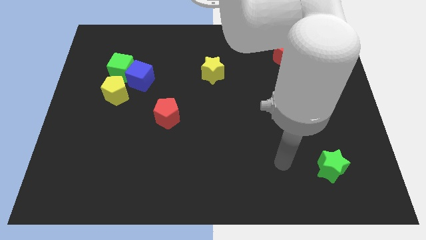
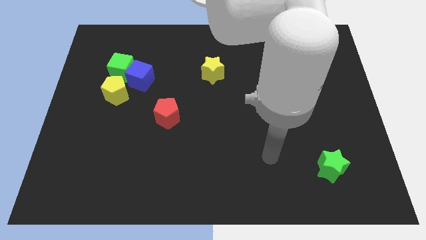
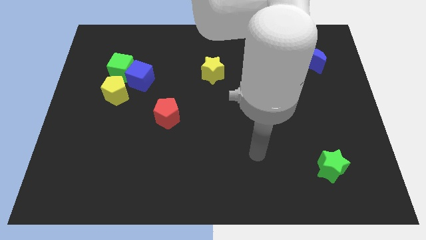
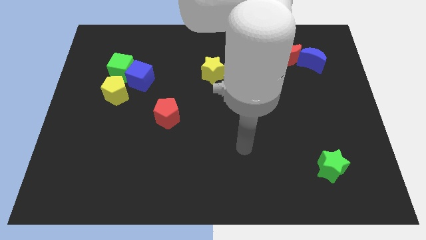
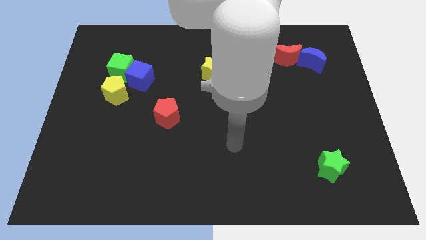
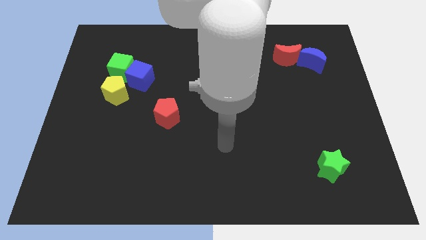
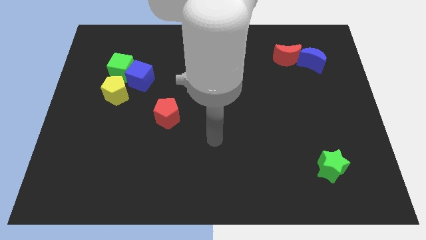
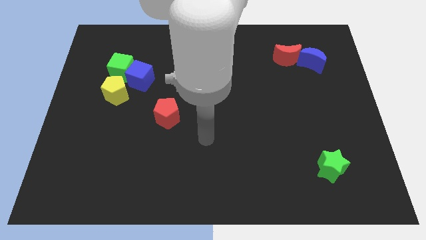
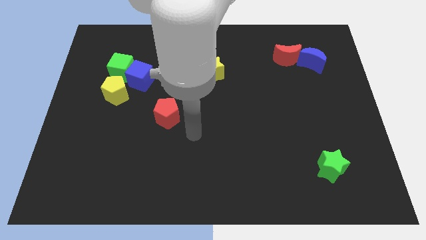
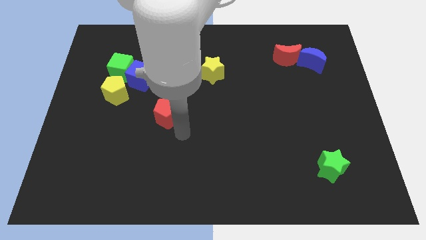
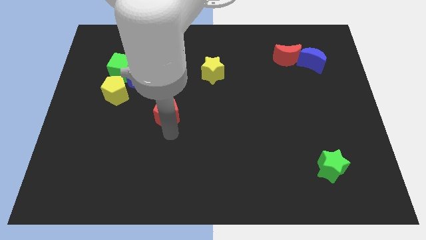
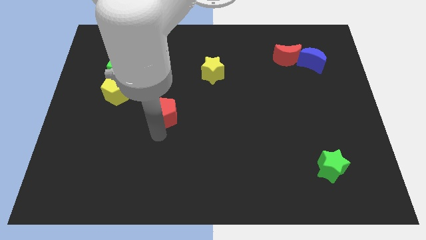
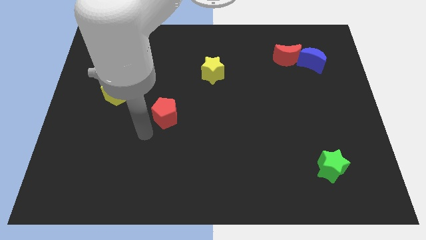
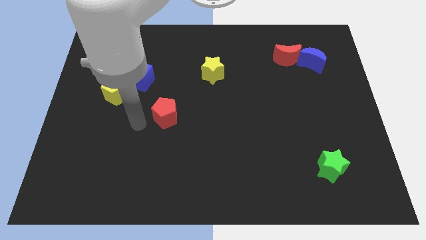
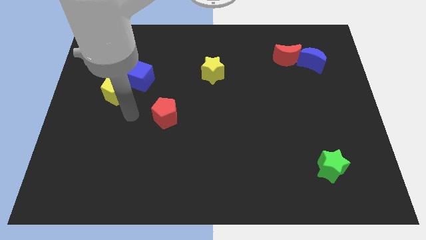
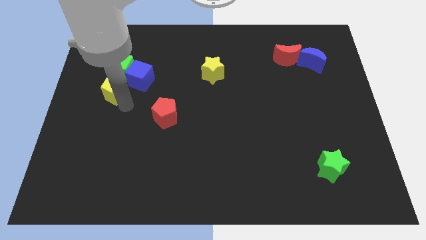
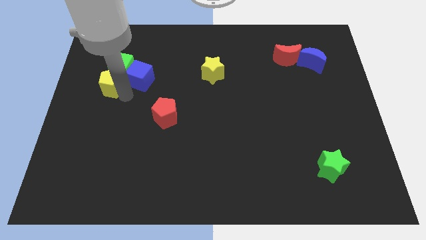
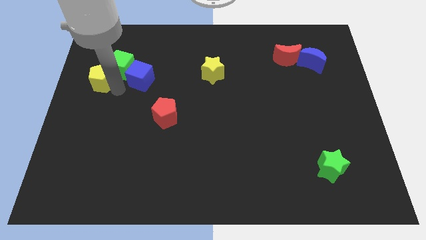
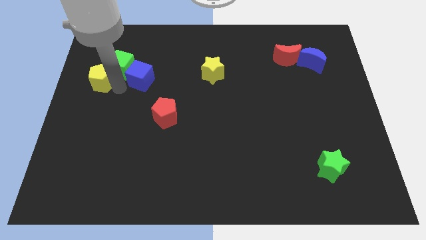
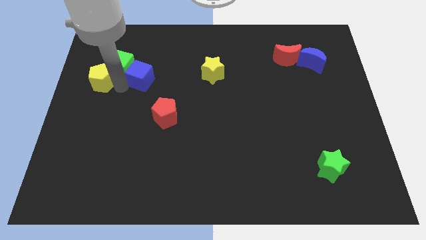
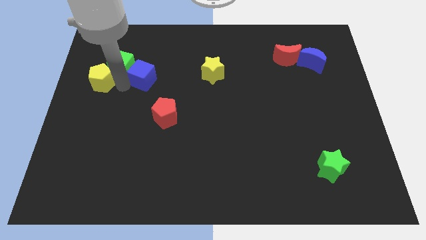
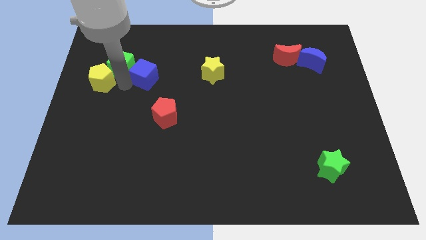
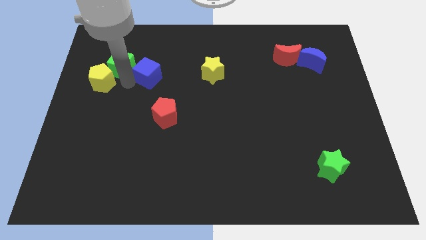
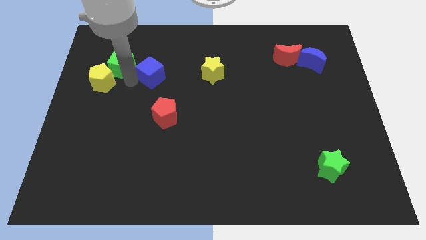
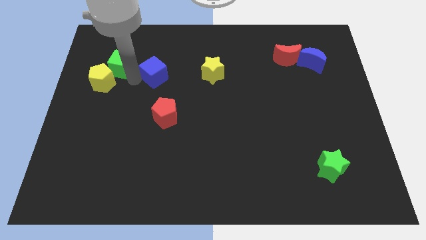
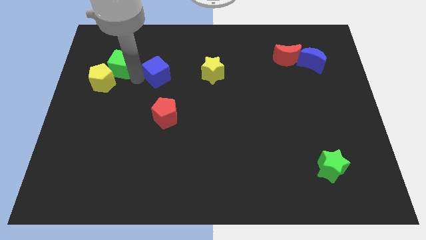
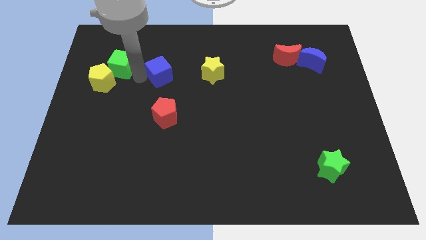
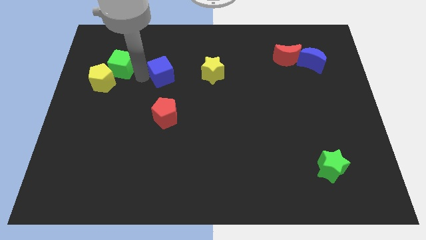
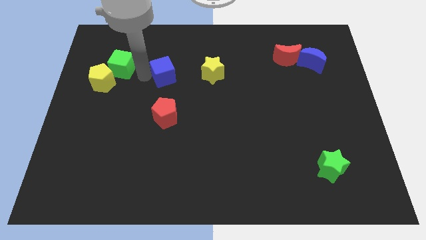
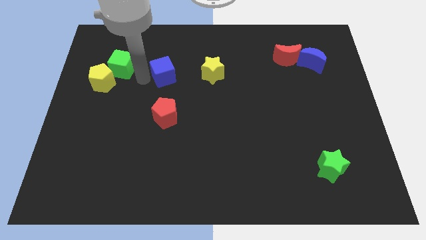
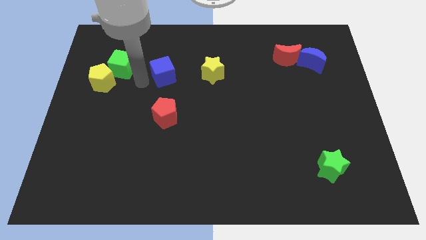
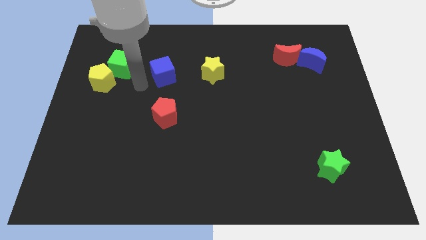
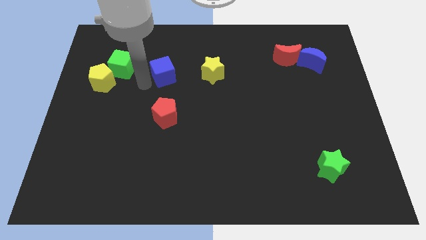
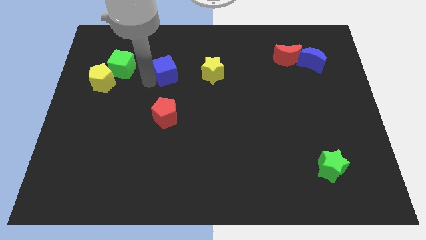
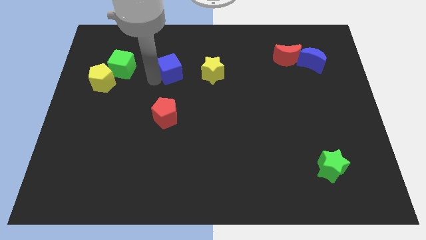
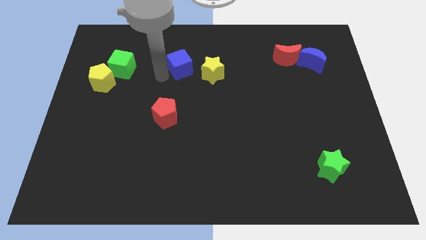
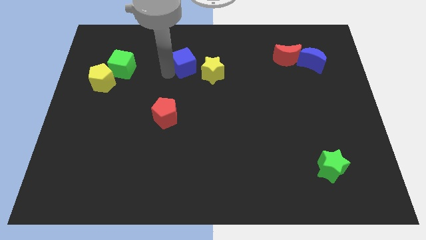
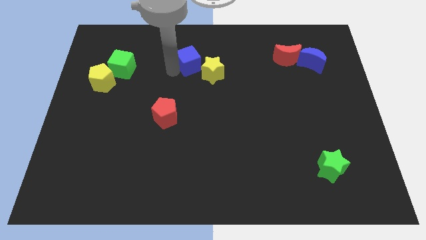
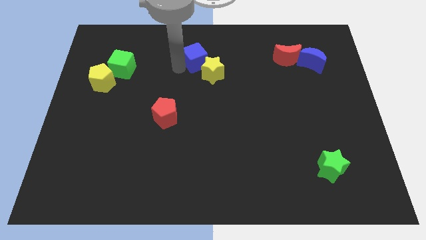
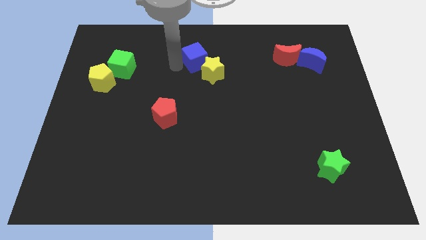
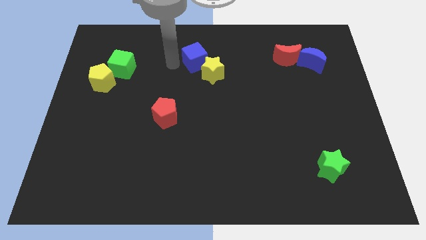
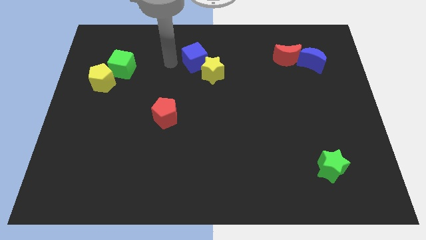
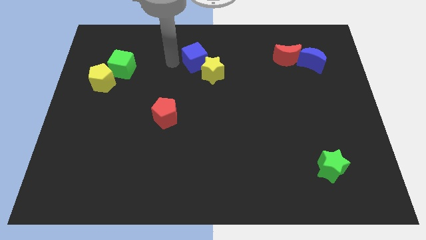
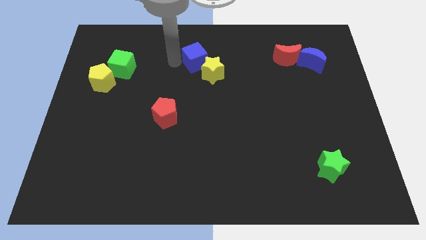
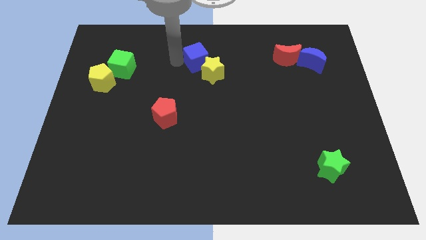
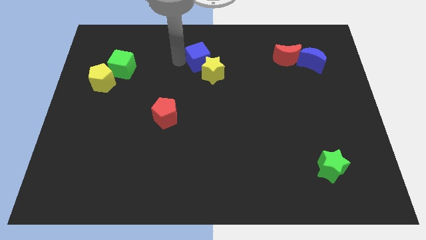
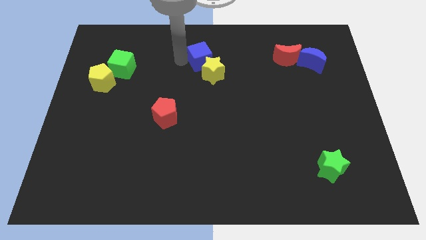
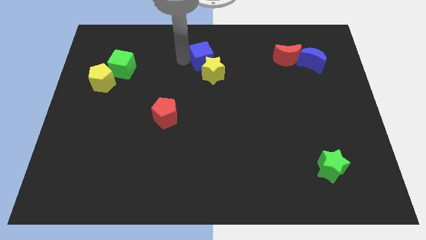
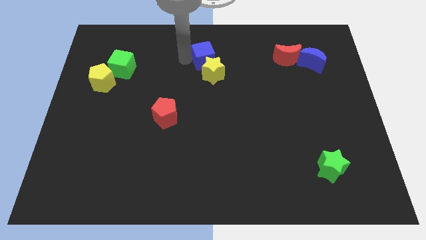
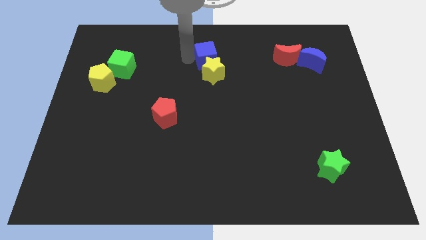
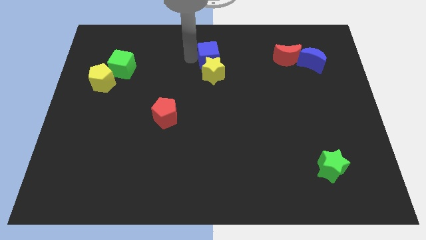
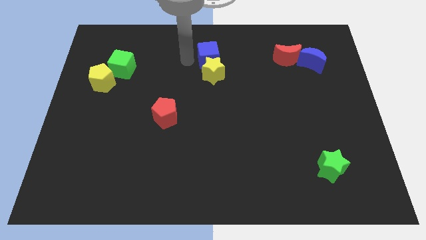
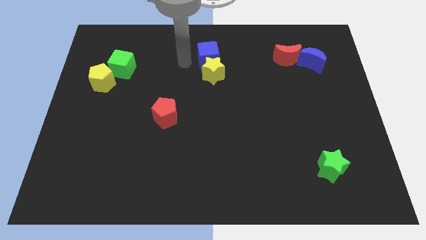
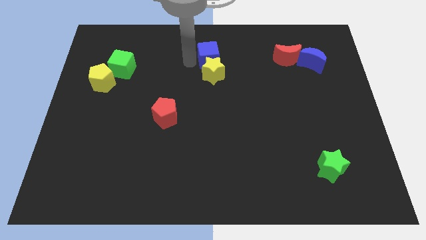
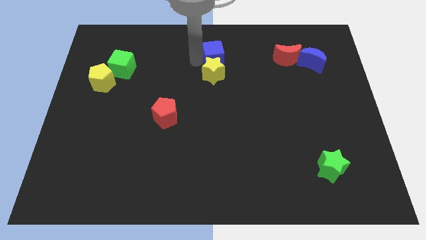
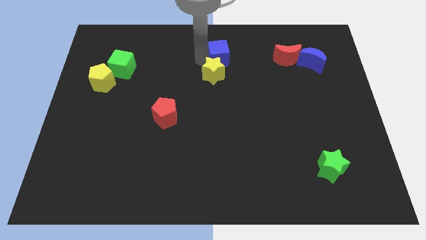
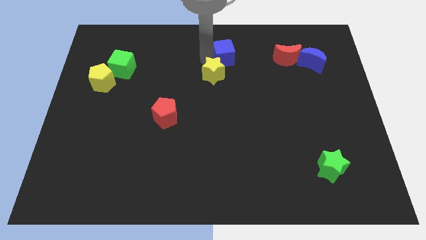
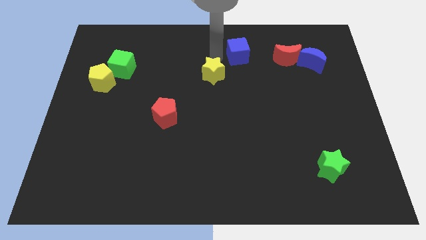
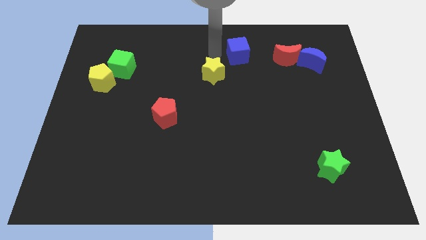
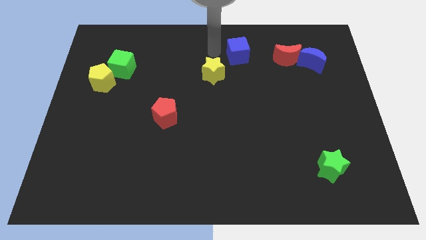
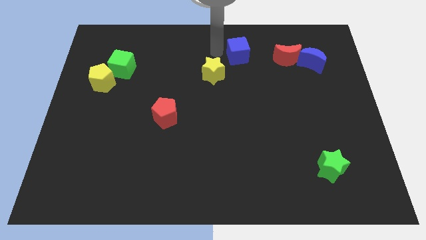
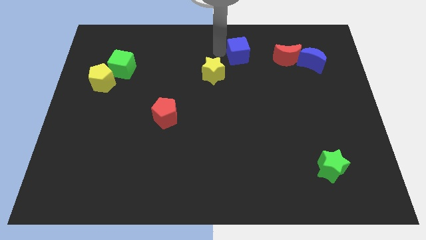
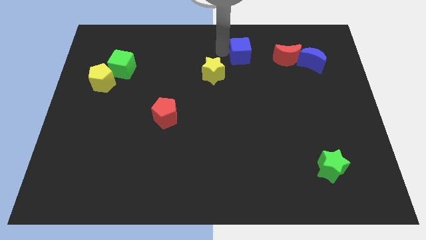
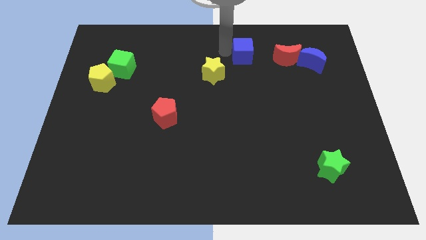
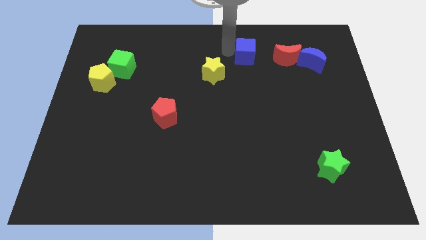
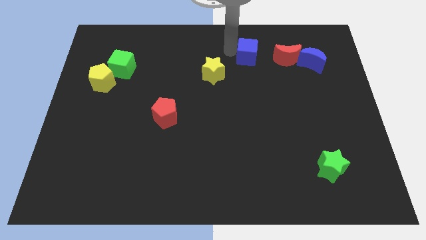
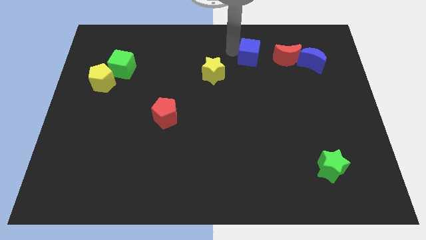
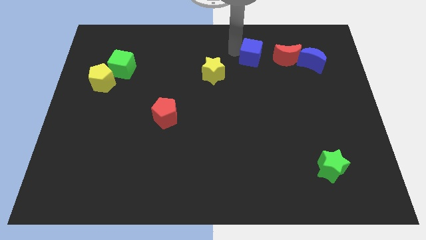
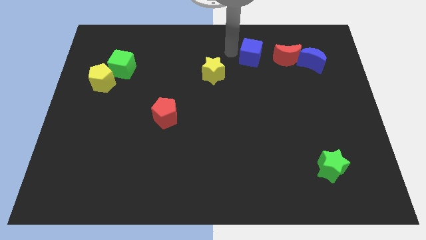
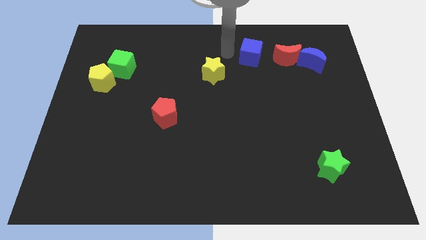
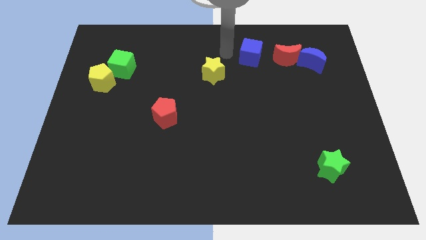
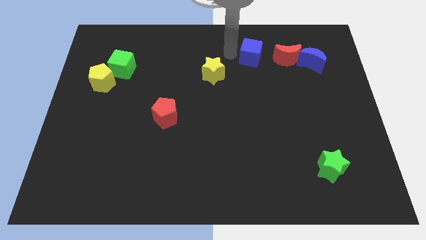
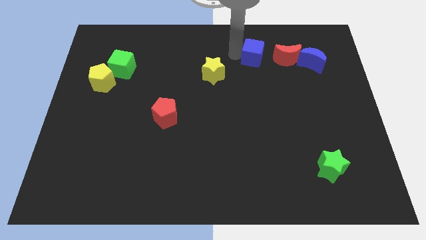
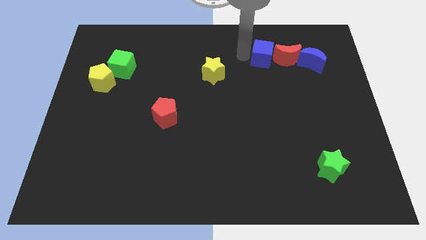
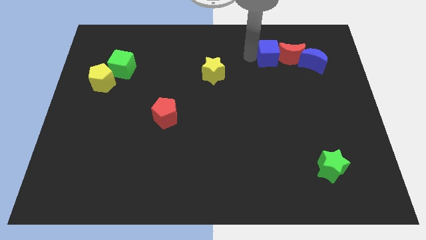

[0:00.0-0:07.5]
push the blue cube close to the red moon
